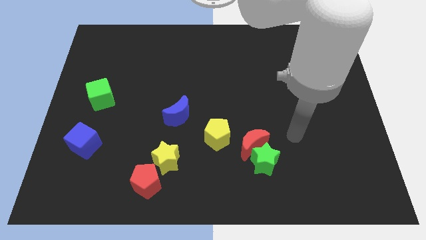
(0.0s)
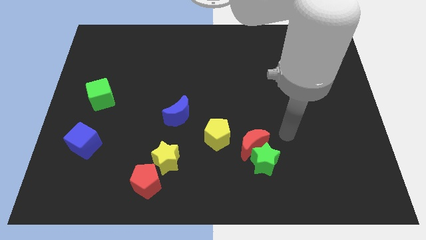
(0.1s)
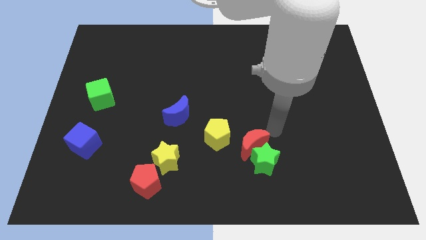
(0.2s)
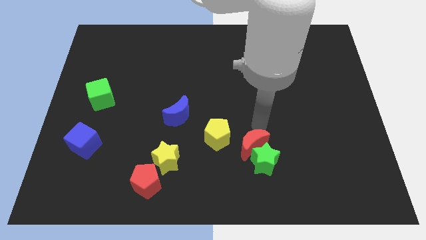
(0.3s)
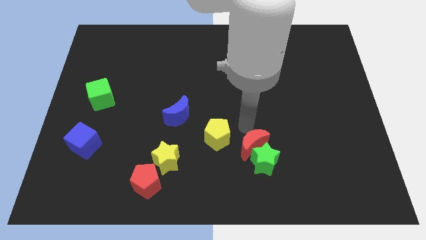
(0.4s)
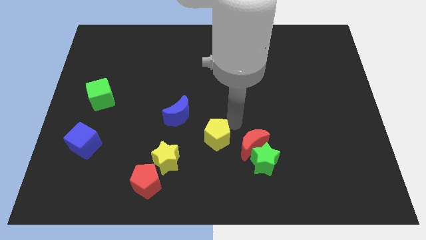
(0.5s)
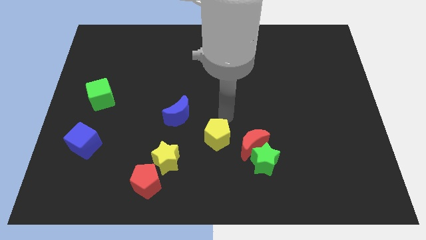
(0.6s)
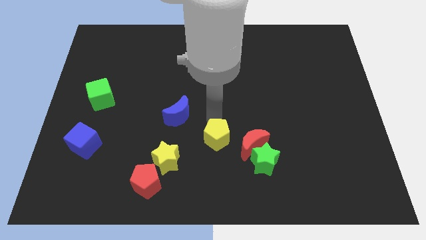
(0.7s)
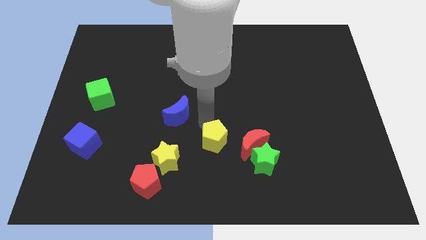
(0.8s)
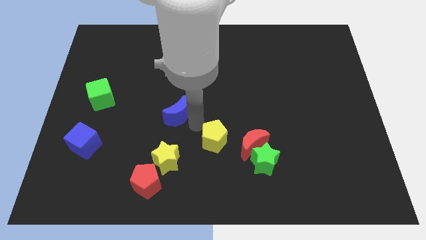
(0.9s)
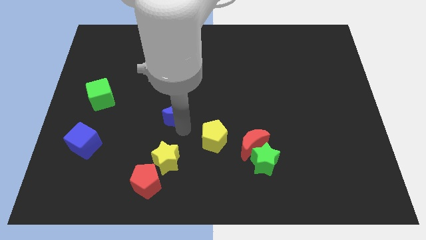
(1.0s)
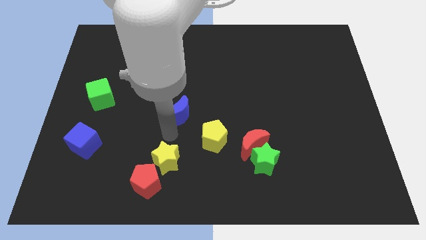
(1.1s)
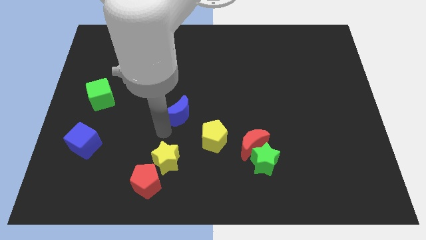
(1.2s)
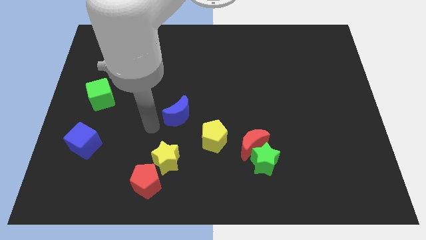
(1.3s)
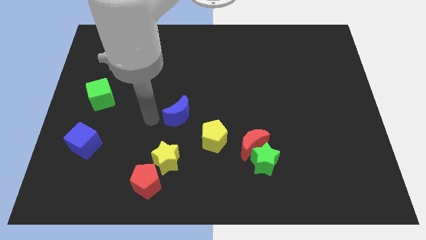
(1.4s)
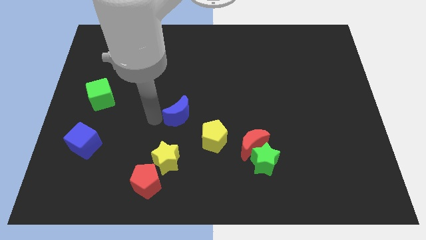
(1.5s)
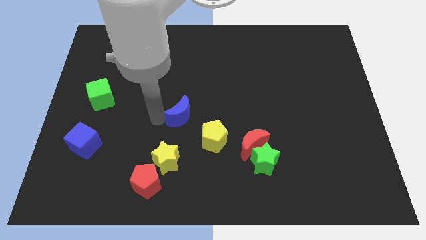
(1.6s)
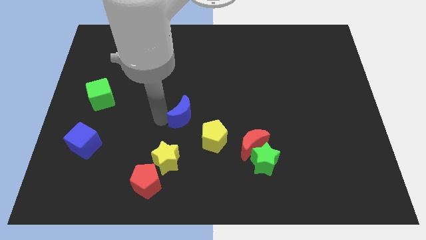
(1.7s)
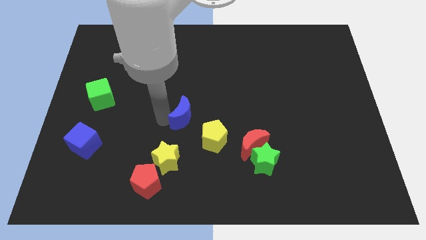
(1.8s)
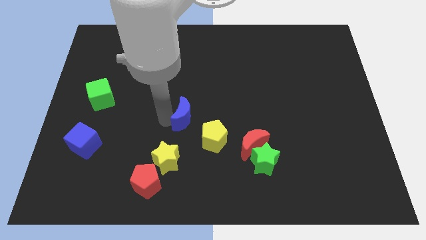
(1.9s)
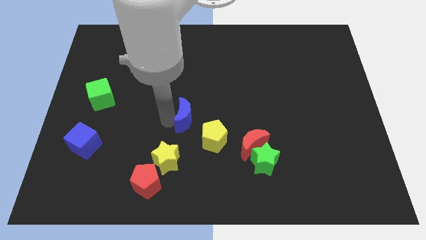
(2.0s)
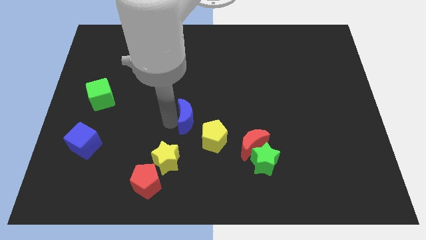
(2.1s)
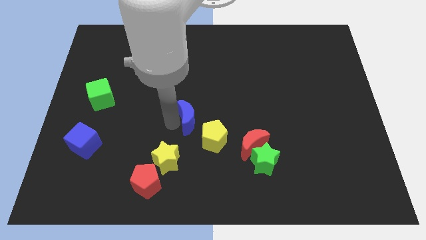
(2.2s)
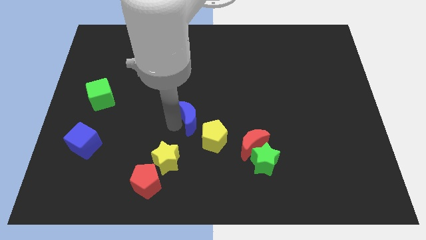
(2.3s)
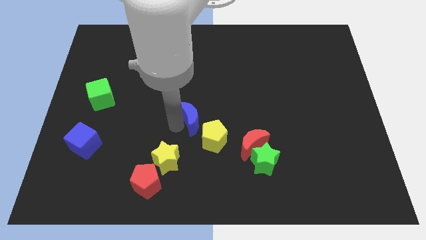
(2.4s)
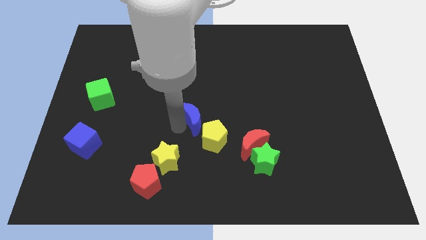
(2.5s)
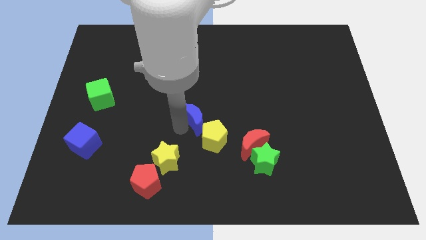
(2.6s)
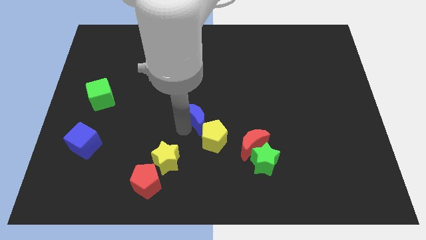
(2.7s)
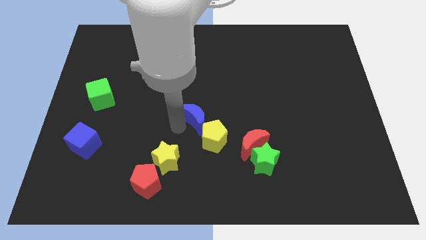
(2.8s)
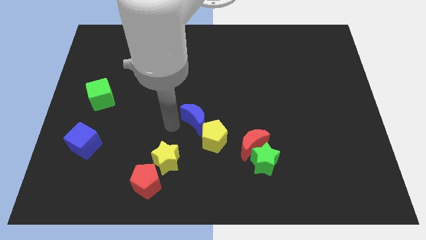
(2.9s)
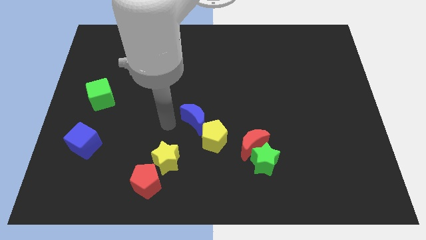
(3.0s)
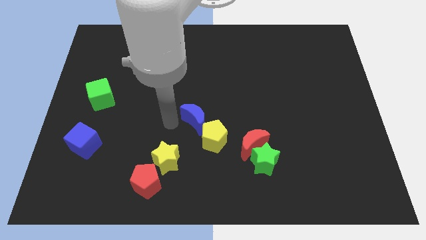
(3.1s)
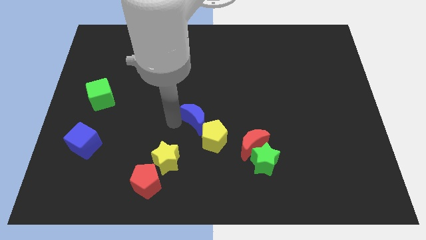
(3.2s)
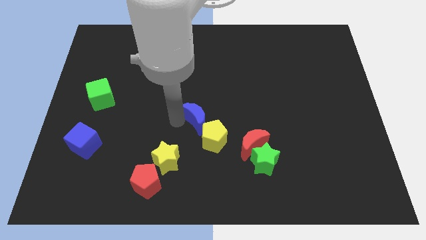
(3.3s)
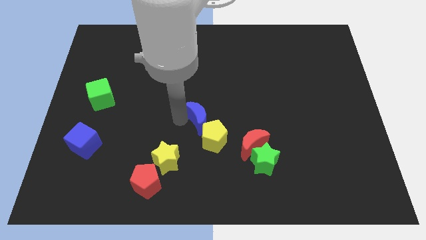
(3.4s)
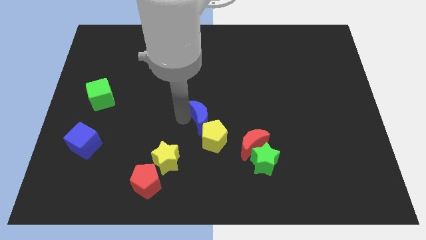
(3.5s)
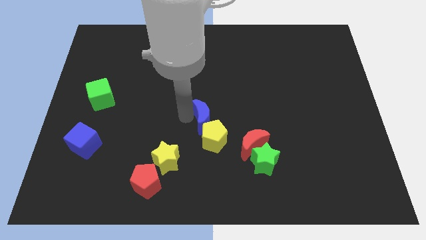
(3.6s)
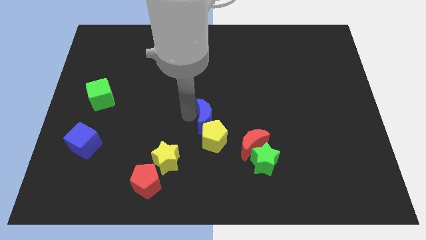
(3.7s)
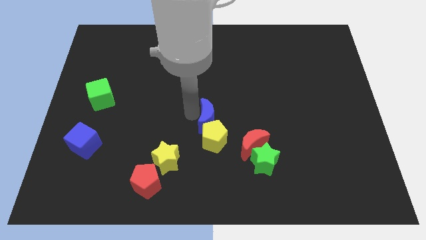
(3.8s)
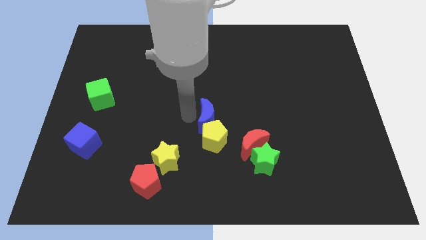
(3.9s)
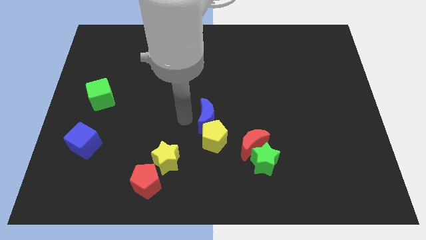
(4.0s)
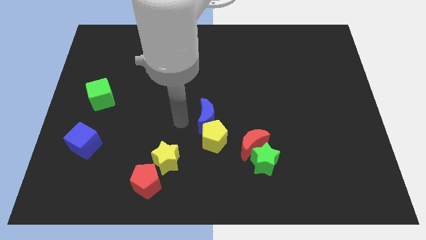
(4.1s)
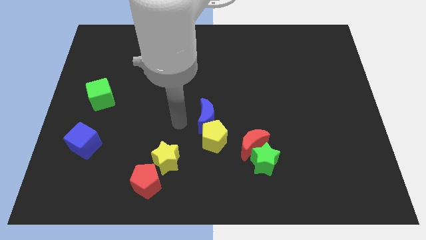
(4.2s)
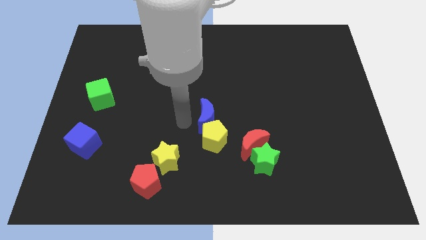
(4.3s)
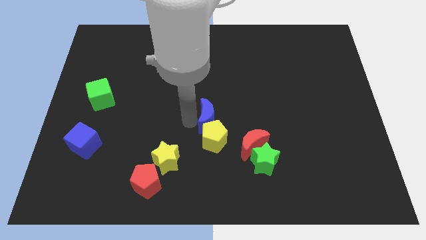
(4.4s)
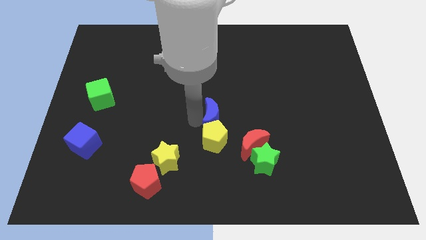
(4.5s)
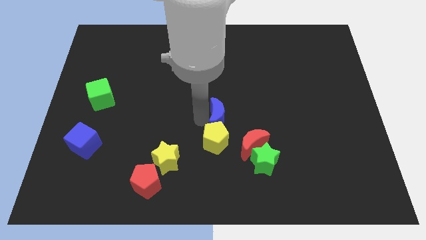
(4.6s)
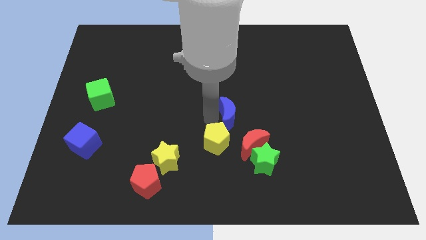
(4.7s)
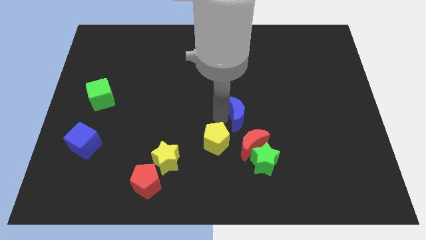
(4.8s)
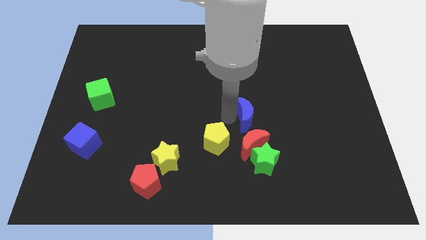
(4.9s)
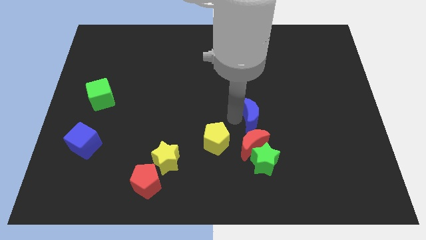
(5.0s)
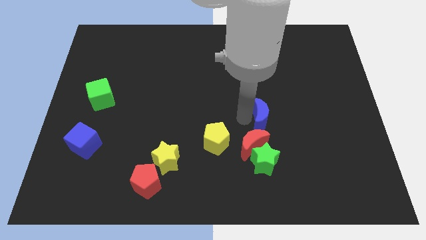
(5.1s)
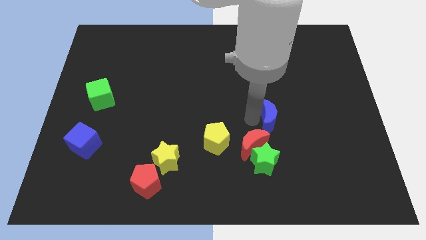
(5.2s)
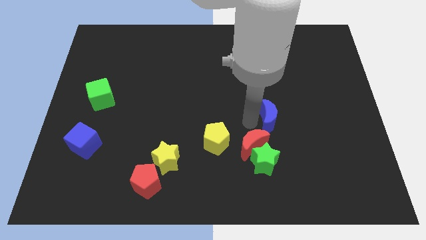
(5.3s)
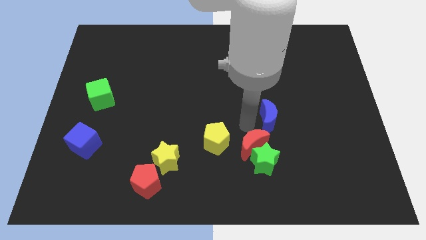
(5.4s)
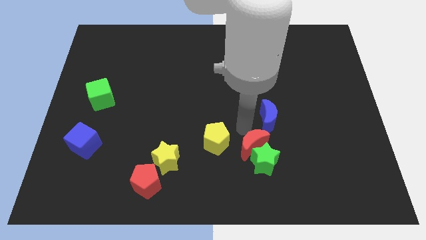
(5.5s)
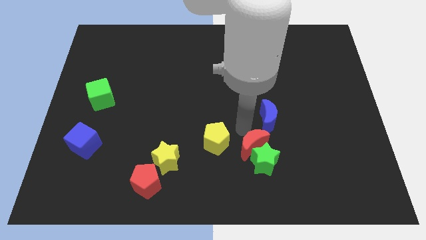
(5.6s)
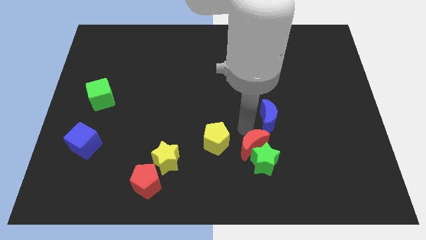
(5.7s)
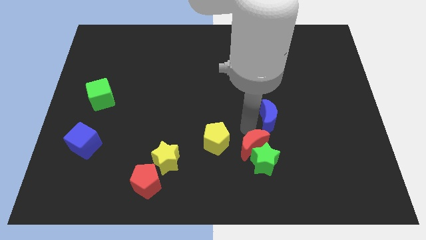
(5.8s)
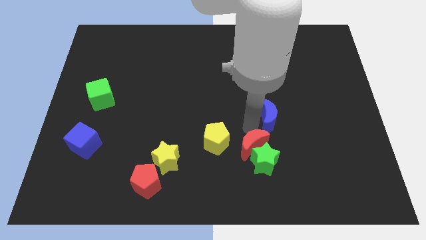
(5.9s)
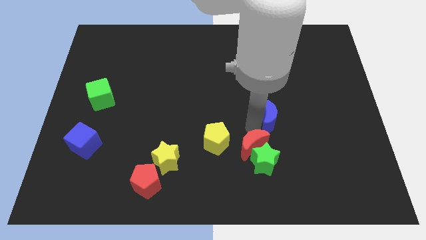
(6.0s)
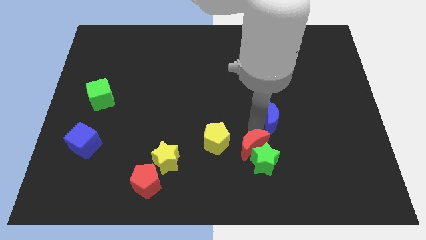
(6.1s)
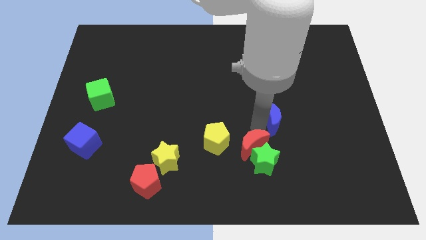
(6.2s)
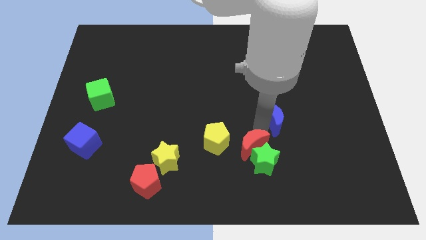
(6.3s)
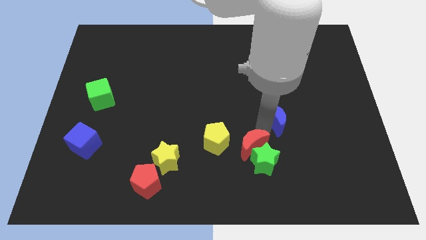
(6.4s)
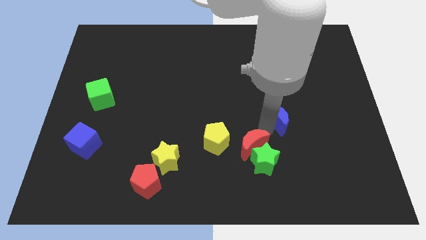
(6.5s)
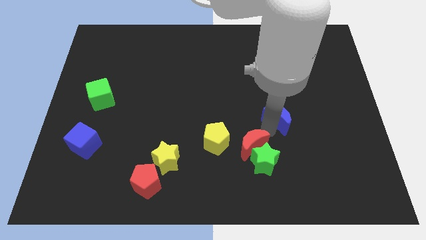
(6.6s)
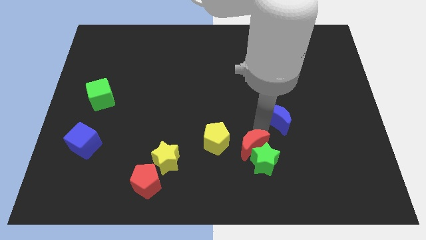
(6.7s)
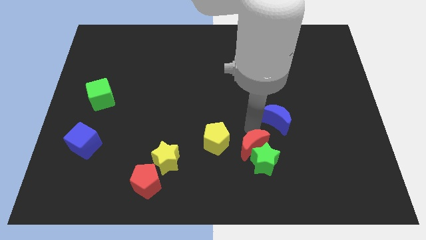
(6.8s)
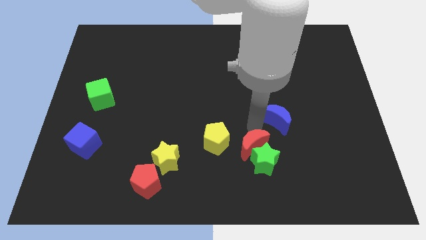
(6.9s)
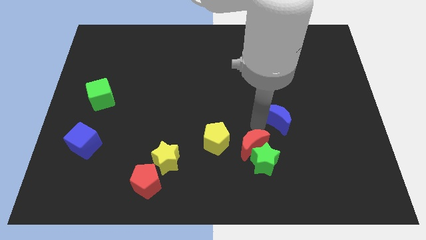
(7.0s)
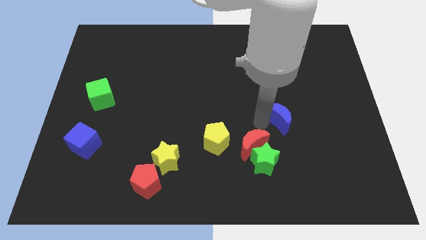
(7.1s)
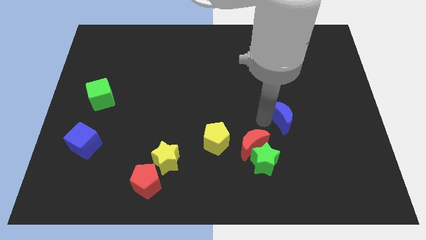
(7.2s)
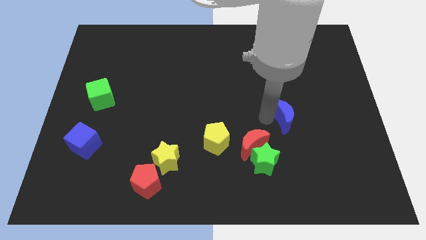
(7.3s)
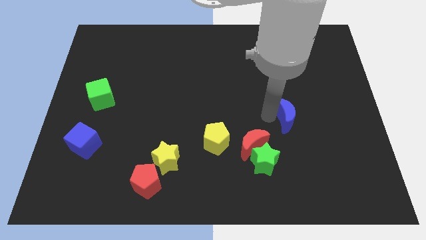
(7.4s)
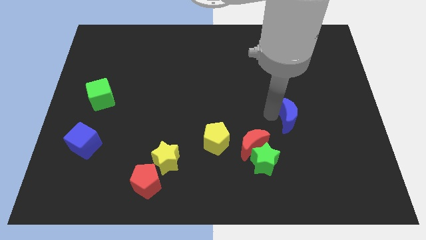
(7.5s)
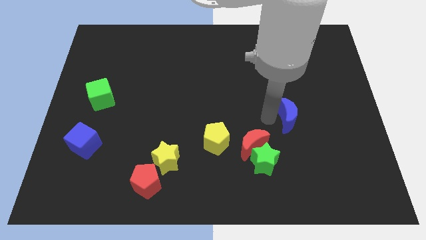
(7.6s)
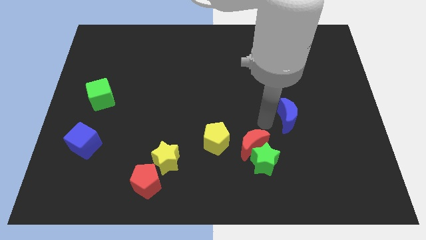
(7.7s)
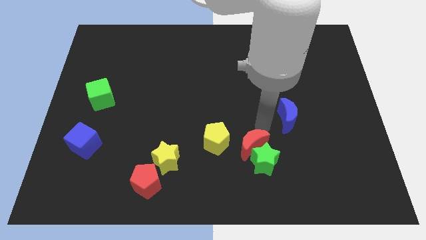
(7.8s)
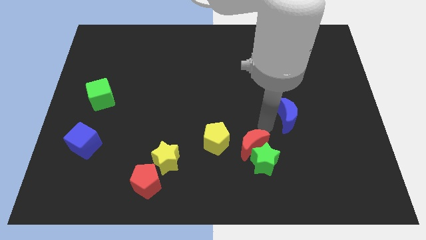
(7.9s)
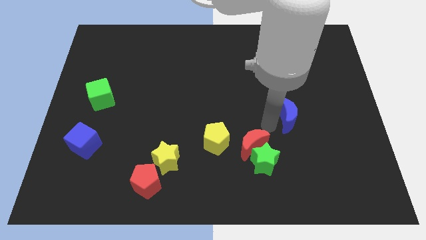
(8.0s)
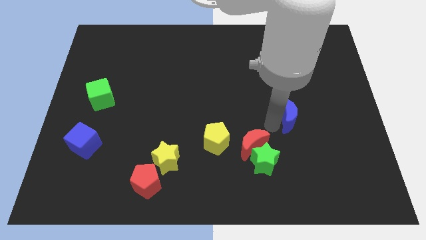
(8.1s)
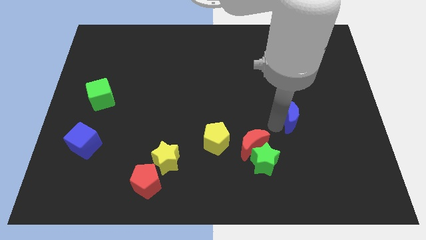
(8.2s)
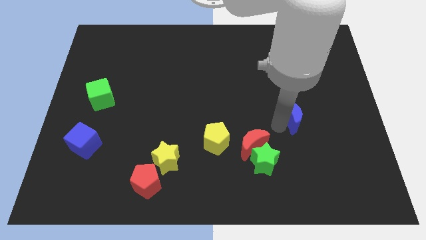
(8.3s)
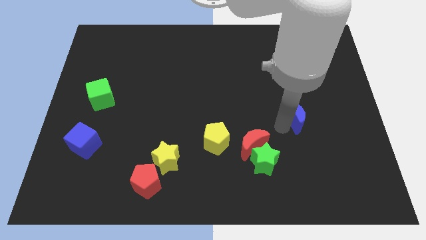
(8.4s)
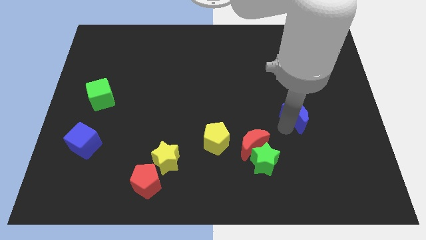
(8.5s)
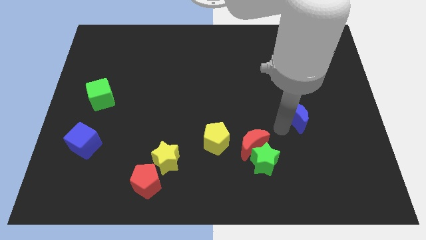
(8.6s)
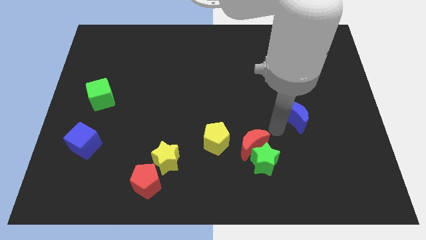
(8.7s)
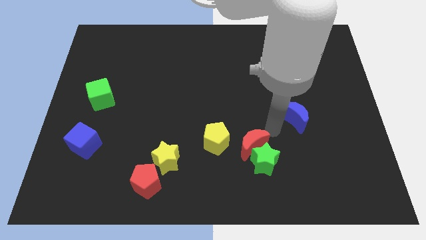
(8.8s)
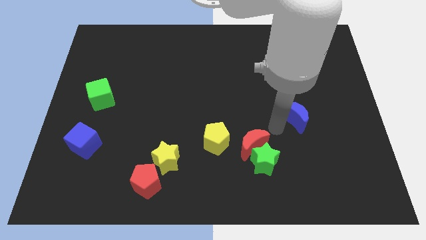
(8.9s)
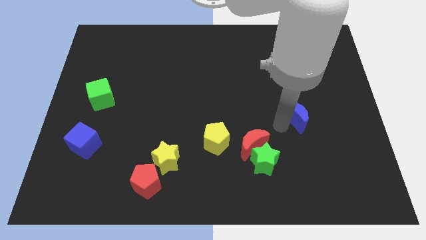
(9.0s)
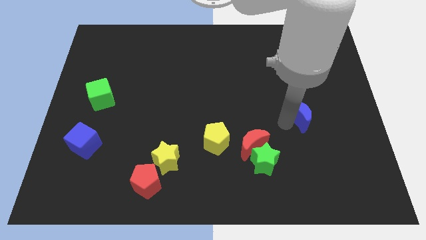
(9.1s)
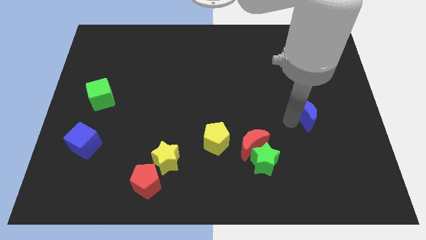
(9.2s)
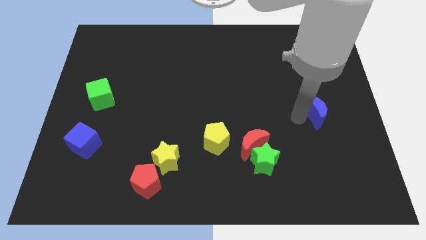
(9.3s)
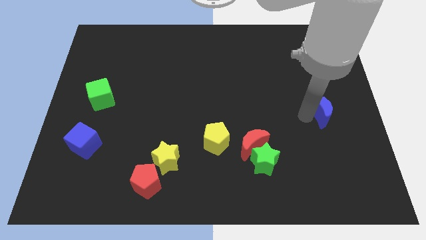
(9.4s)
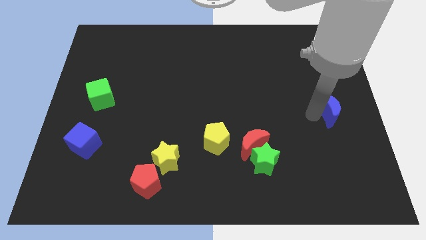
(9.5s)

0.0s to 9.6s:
move the blue moon to the center right
